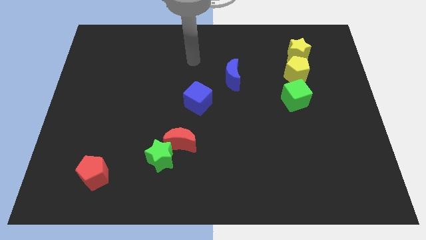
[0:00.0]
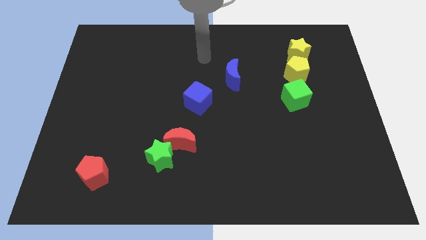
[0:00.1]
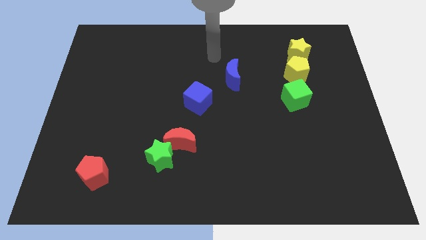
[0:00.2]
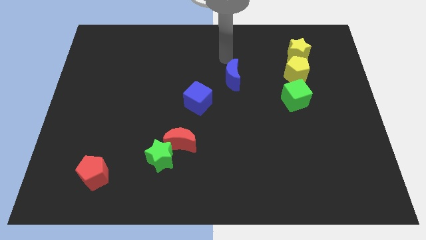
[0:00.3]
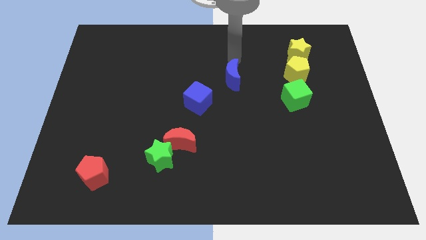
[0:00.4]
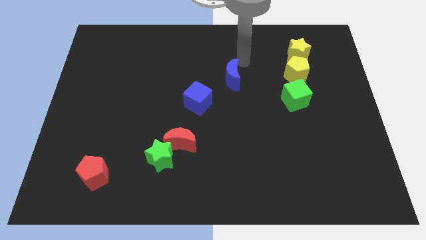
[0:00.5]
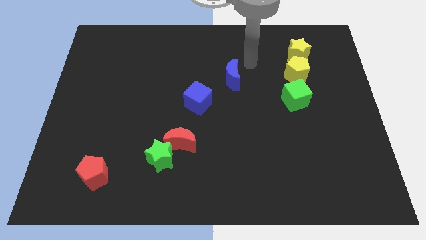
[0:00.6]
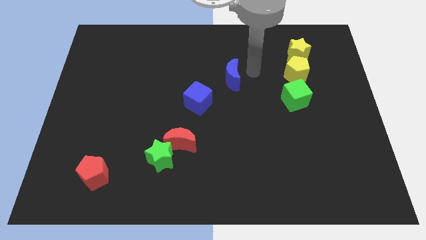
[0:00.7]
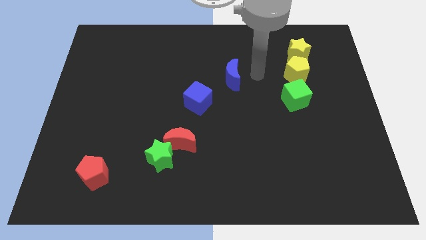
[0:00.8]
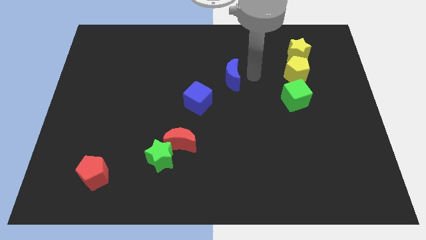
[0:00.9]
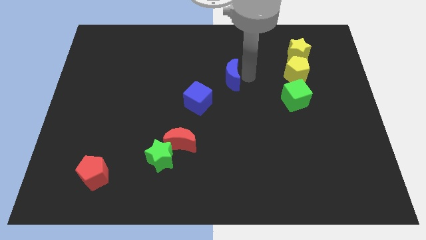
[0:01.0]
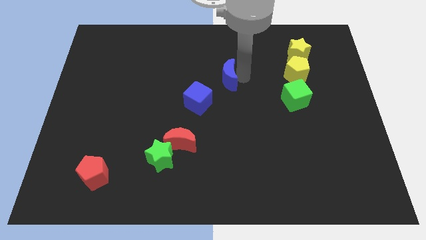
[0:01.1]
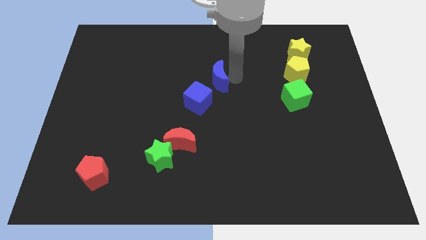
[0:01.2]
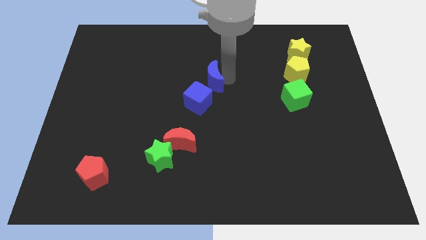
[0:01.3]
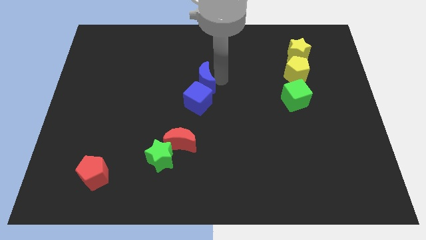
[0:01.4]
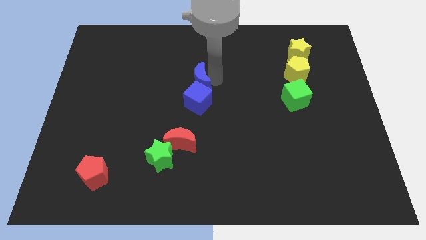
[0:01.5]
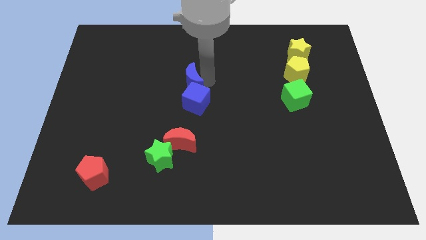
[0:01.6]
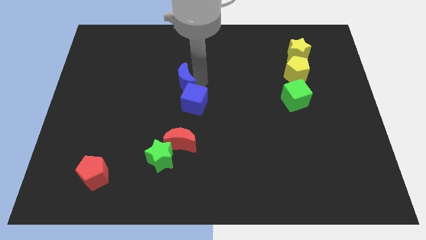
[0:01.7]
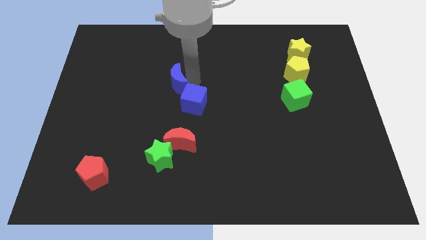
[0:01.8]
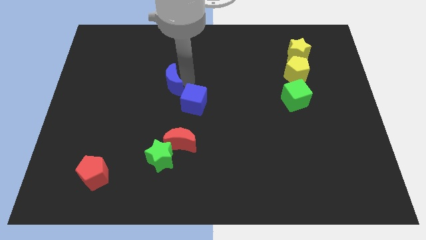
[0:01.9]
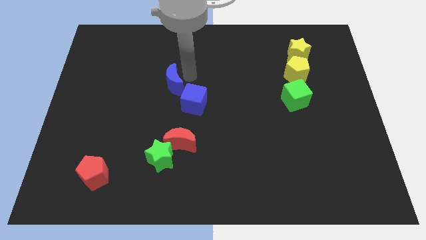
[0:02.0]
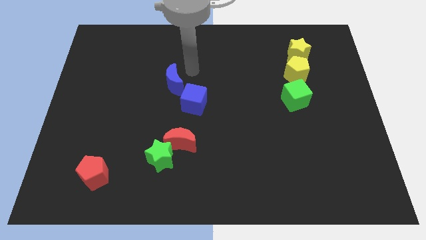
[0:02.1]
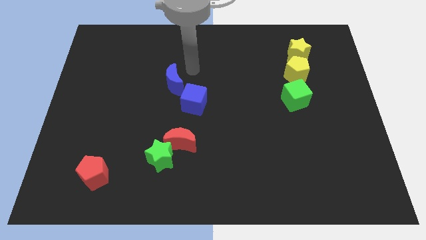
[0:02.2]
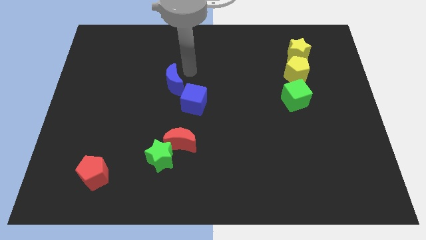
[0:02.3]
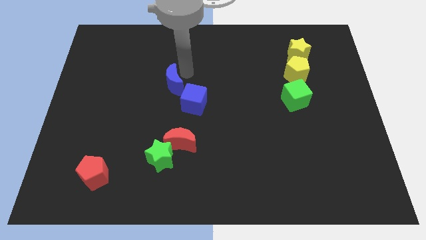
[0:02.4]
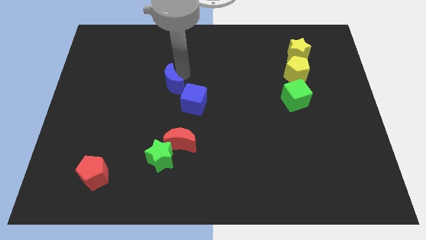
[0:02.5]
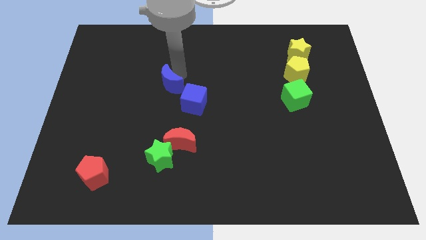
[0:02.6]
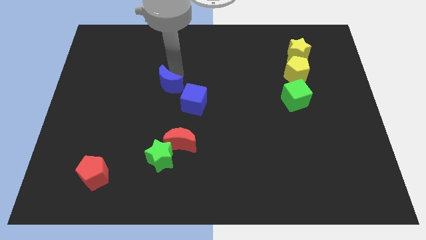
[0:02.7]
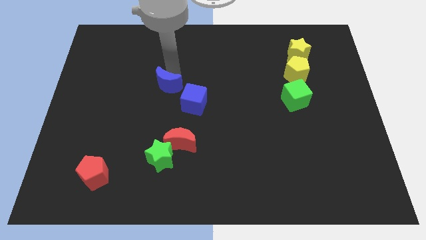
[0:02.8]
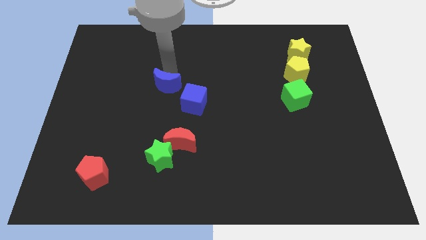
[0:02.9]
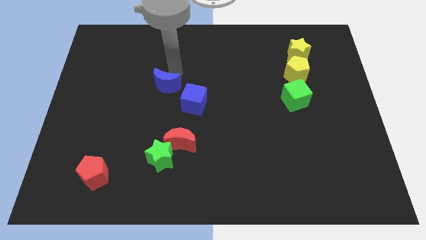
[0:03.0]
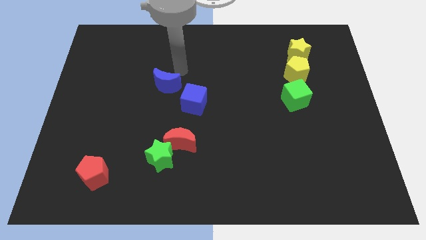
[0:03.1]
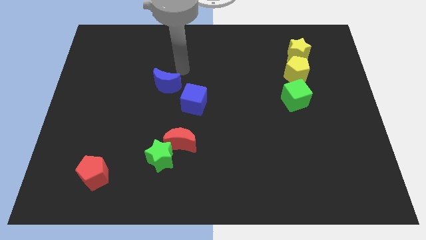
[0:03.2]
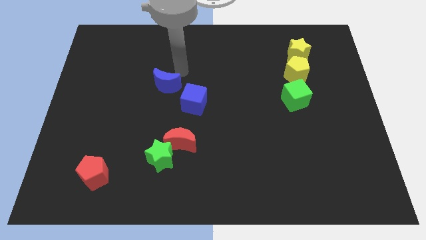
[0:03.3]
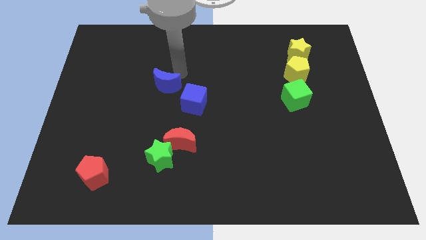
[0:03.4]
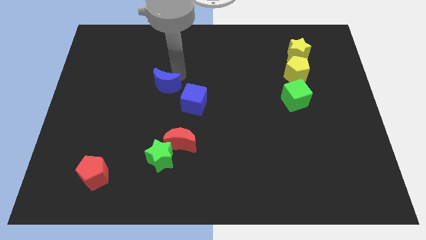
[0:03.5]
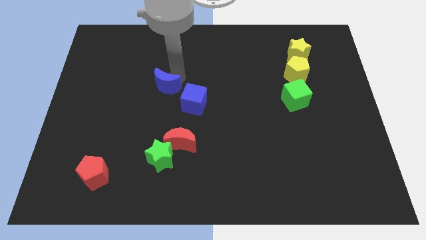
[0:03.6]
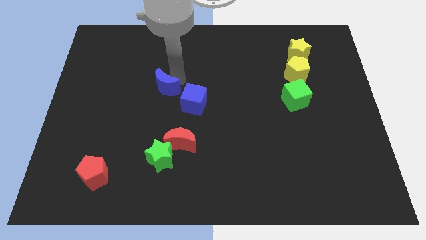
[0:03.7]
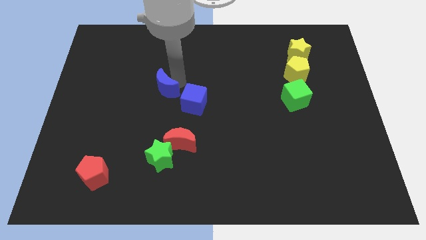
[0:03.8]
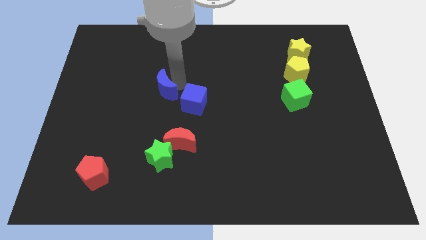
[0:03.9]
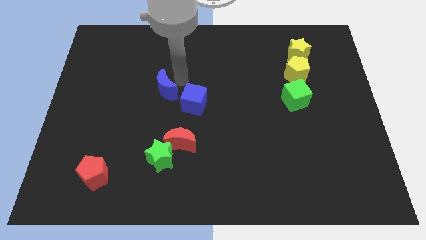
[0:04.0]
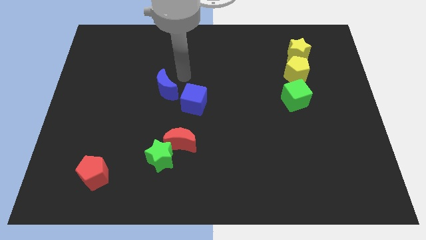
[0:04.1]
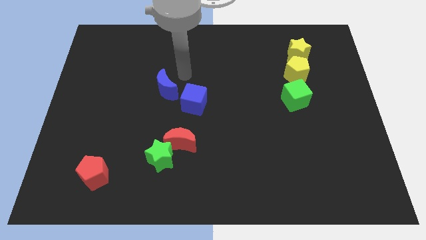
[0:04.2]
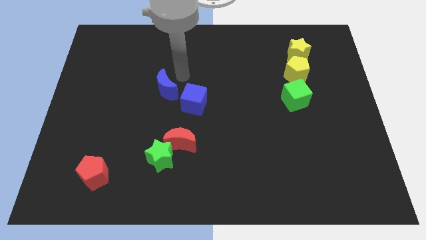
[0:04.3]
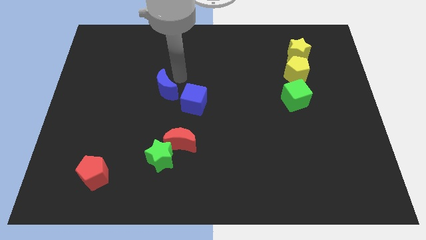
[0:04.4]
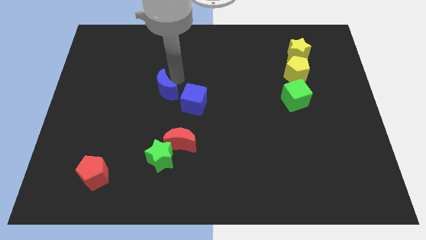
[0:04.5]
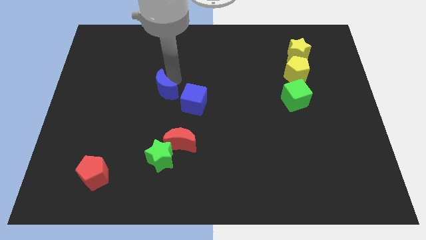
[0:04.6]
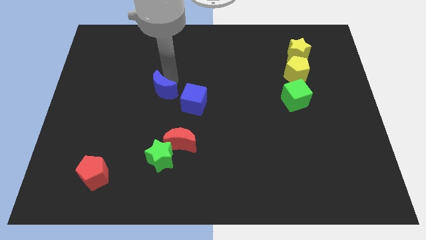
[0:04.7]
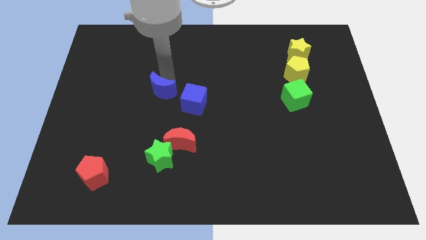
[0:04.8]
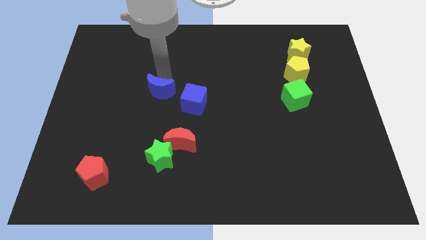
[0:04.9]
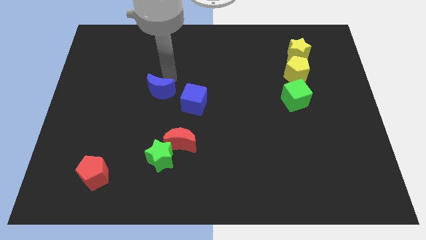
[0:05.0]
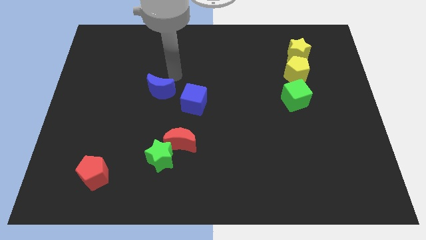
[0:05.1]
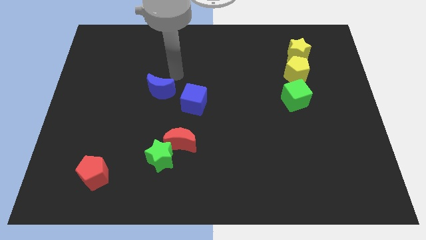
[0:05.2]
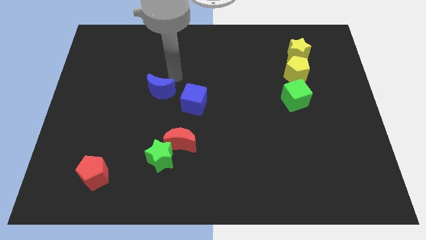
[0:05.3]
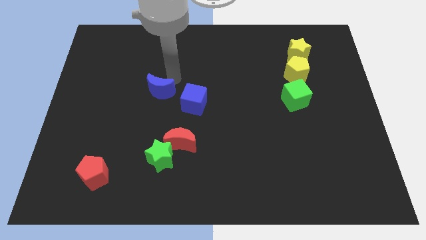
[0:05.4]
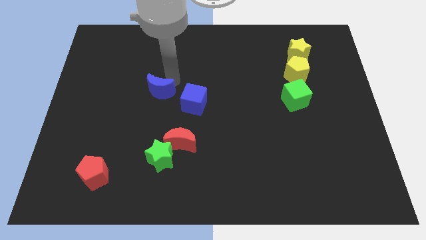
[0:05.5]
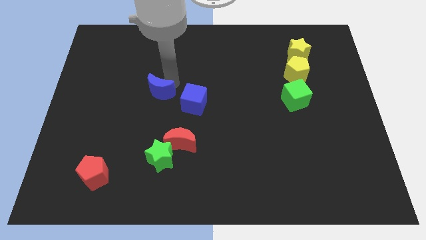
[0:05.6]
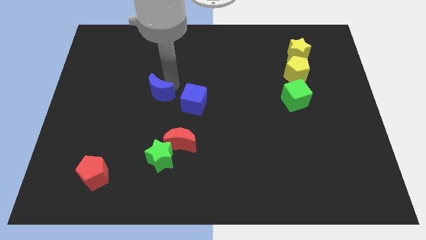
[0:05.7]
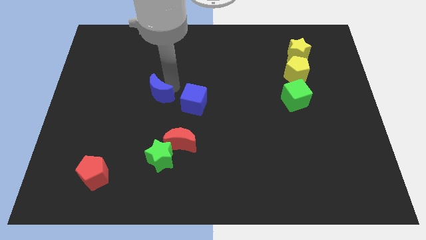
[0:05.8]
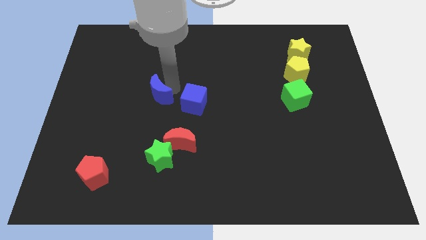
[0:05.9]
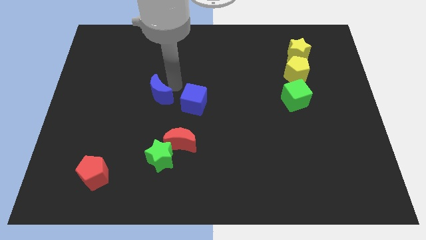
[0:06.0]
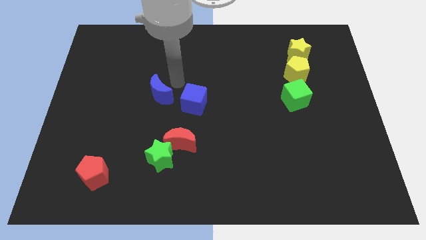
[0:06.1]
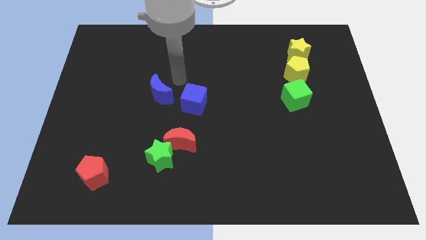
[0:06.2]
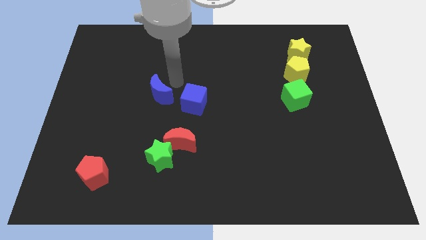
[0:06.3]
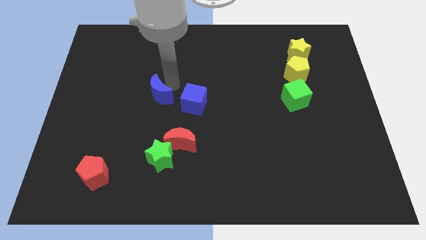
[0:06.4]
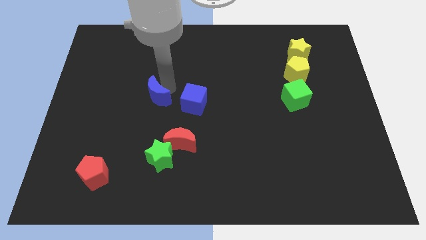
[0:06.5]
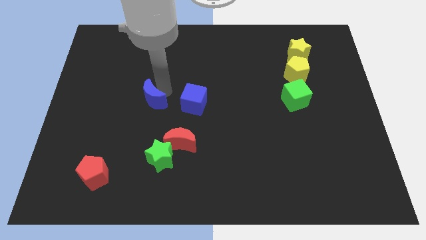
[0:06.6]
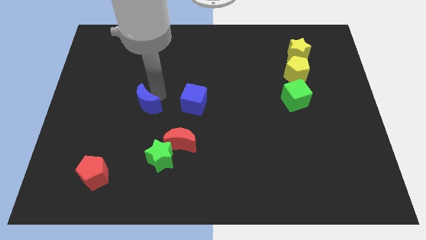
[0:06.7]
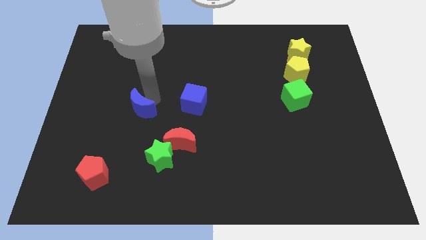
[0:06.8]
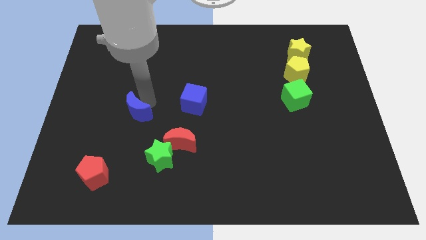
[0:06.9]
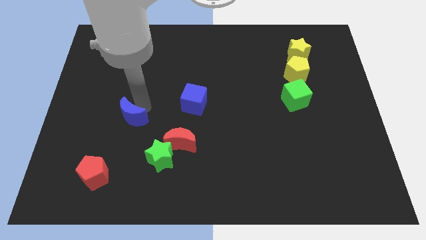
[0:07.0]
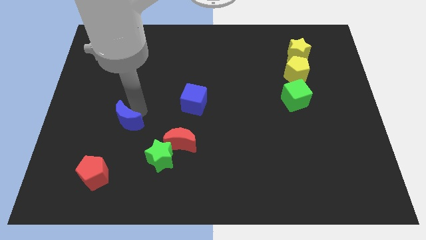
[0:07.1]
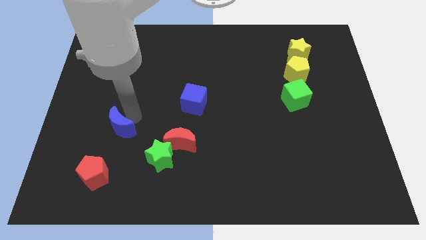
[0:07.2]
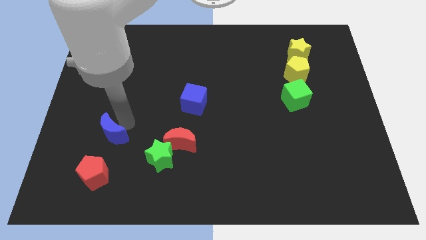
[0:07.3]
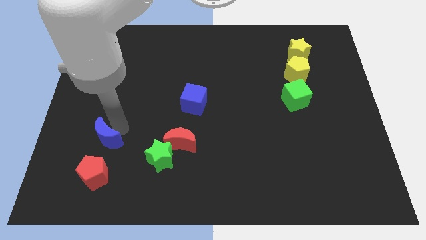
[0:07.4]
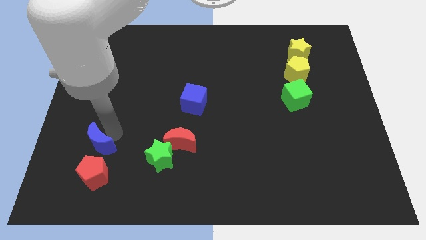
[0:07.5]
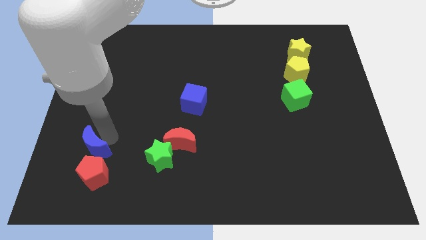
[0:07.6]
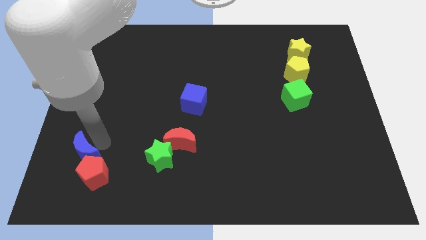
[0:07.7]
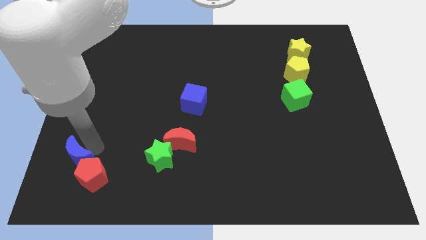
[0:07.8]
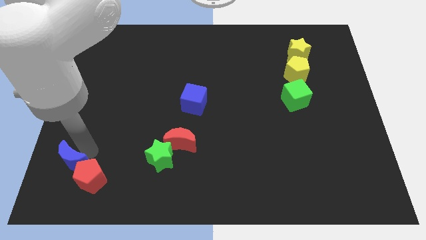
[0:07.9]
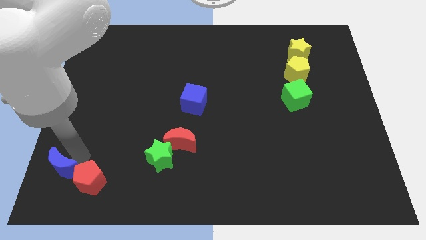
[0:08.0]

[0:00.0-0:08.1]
push the blue moon to the lower left corner
